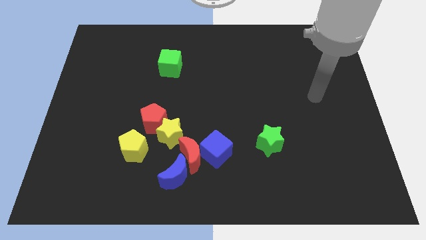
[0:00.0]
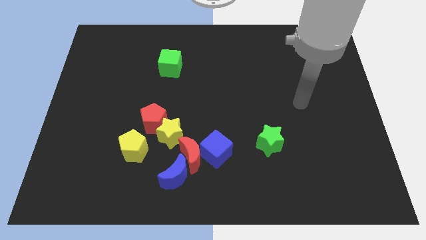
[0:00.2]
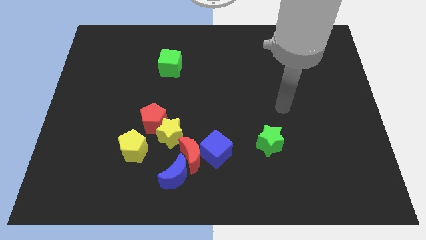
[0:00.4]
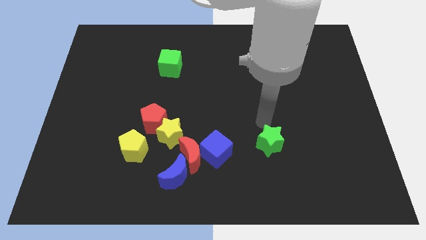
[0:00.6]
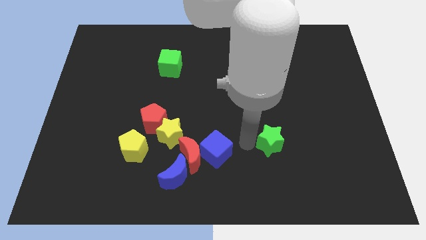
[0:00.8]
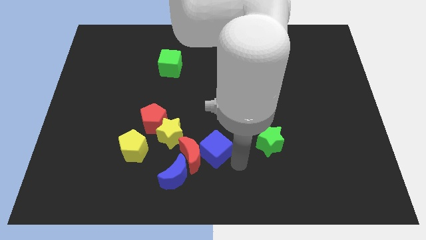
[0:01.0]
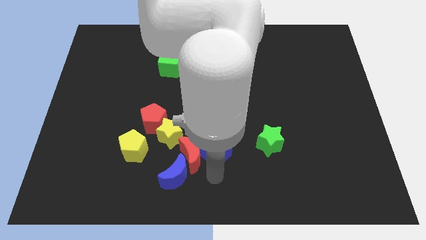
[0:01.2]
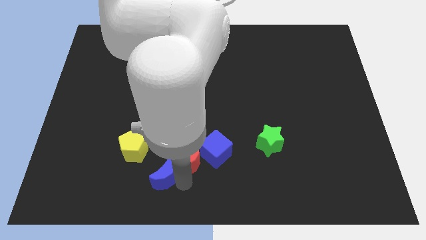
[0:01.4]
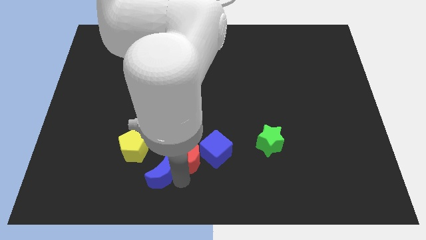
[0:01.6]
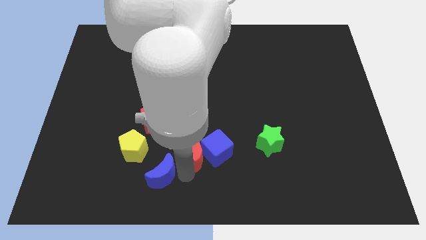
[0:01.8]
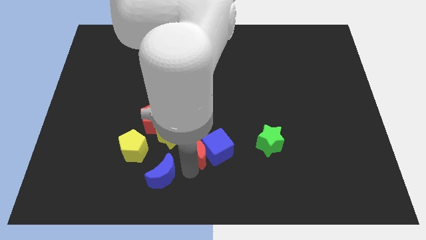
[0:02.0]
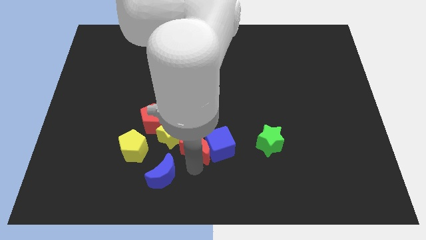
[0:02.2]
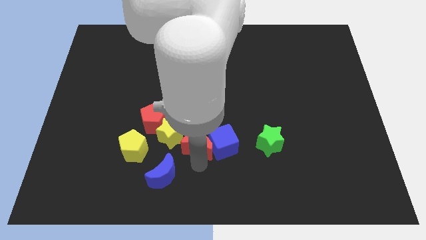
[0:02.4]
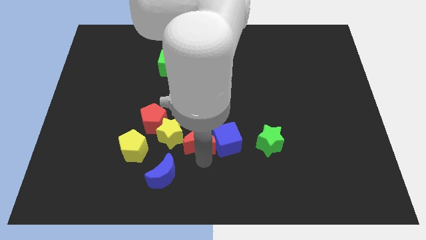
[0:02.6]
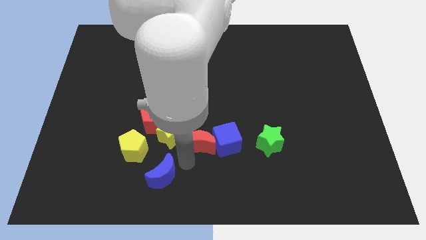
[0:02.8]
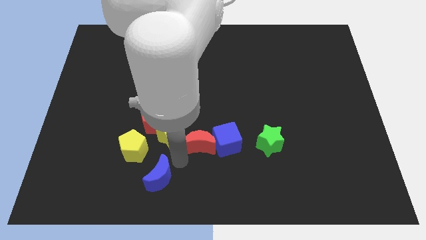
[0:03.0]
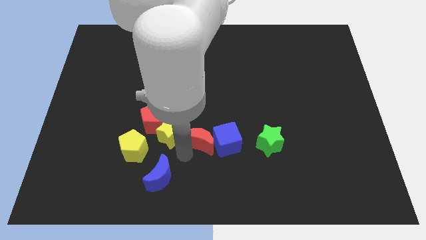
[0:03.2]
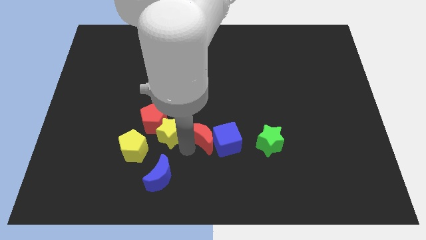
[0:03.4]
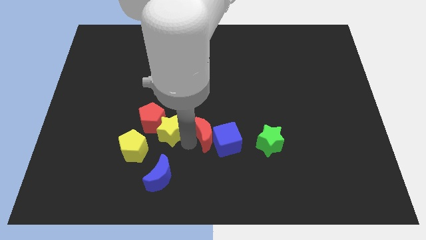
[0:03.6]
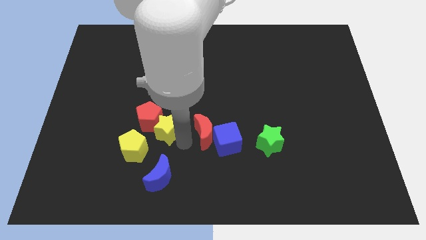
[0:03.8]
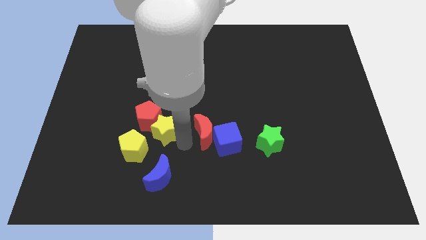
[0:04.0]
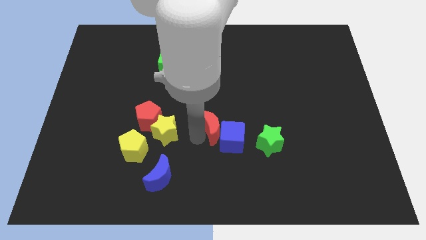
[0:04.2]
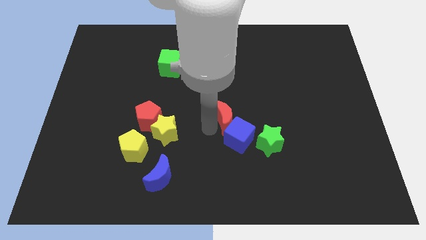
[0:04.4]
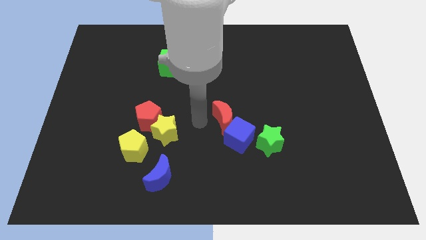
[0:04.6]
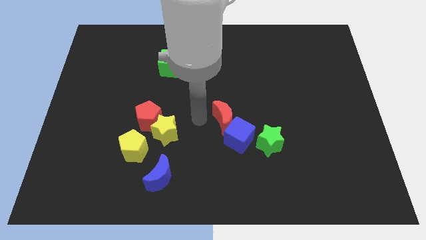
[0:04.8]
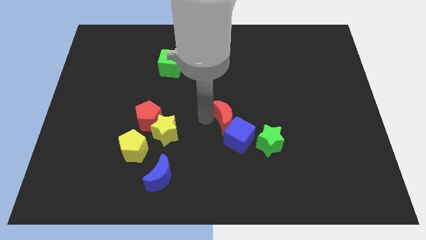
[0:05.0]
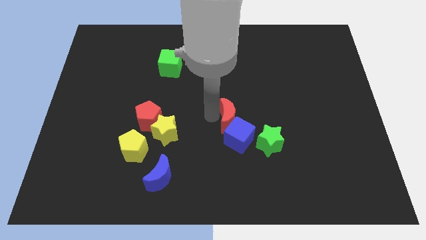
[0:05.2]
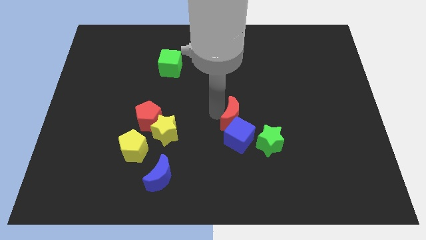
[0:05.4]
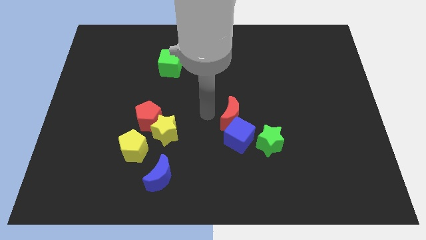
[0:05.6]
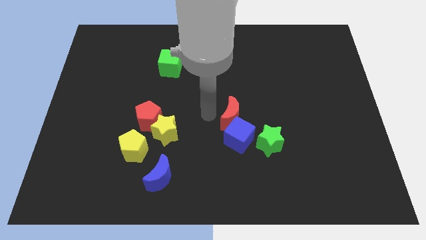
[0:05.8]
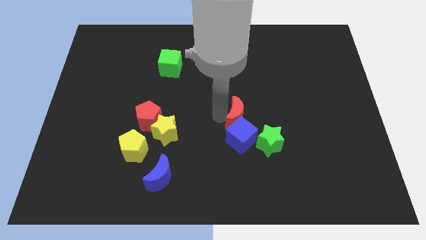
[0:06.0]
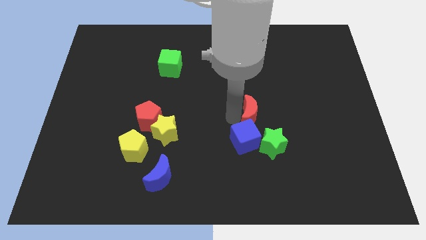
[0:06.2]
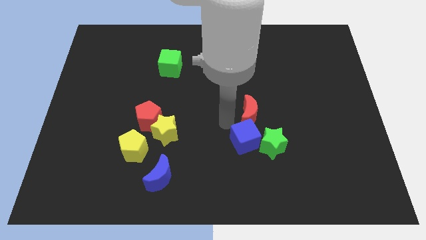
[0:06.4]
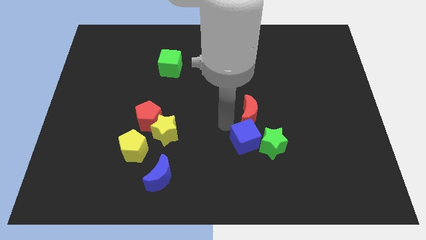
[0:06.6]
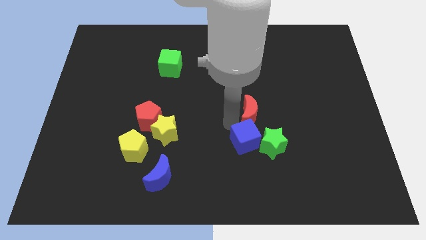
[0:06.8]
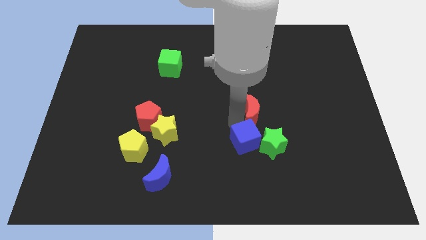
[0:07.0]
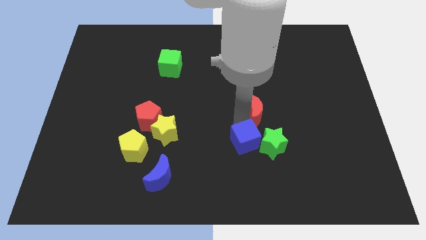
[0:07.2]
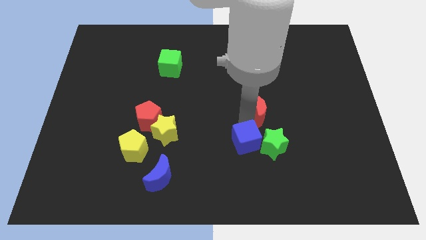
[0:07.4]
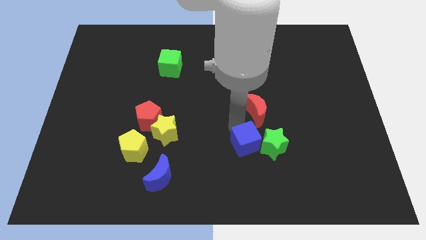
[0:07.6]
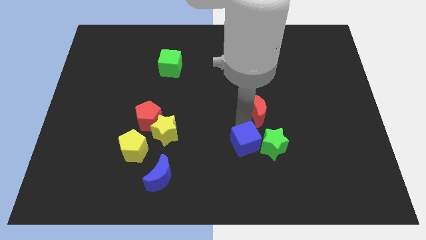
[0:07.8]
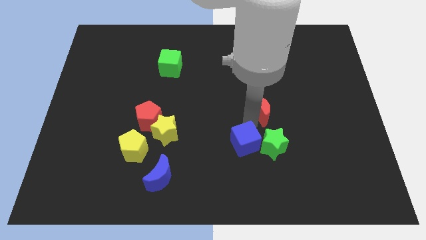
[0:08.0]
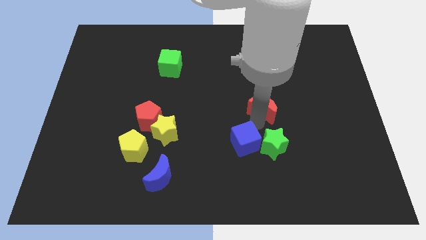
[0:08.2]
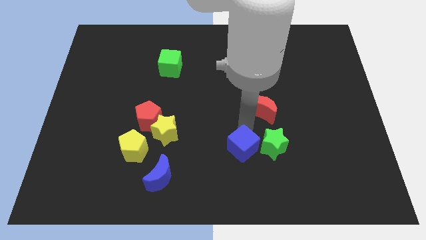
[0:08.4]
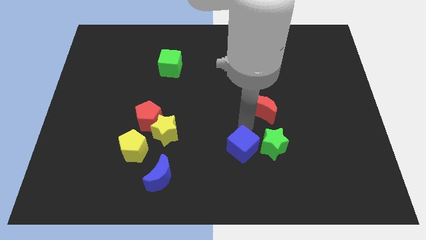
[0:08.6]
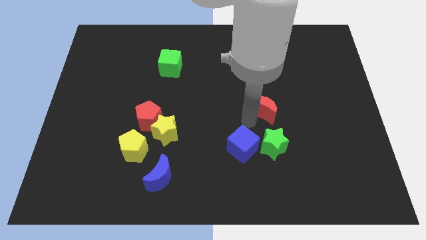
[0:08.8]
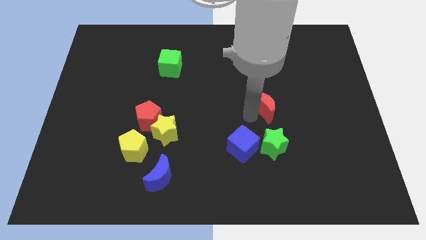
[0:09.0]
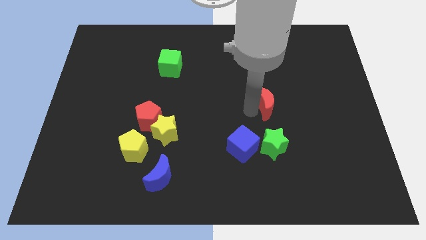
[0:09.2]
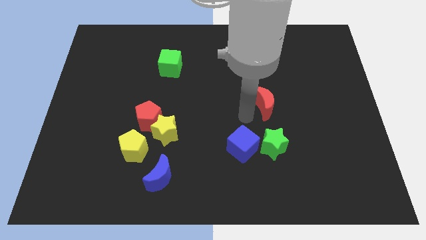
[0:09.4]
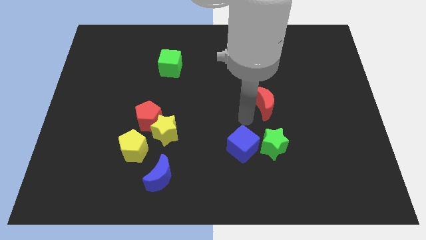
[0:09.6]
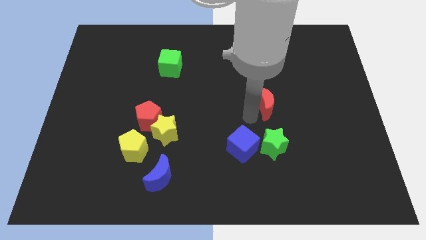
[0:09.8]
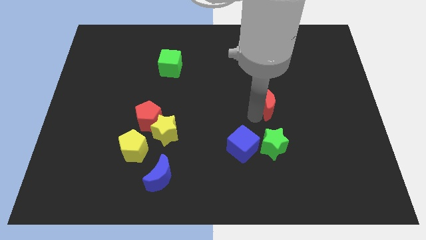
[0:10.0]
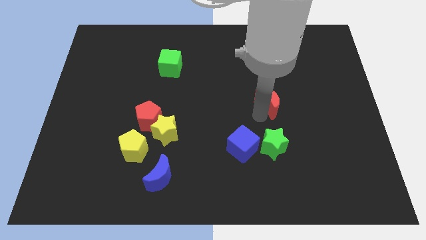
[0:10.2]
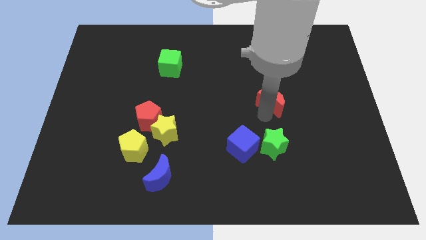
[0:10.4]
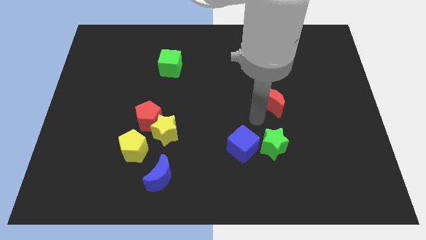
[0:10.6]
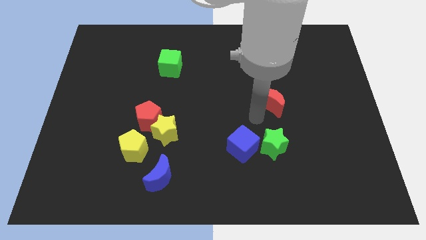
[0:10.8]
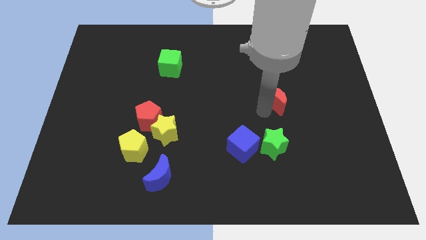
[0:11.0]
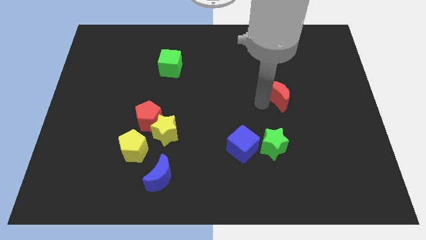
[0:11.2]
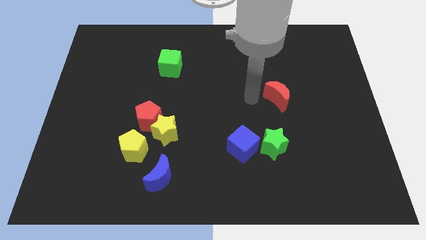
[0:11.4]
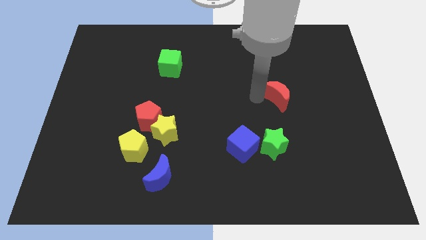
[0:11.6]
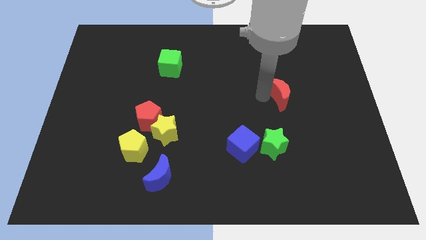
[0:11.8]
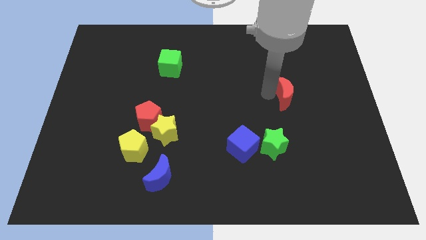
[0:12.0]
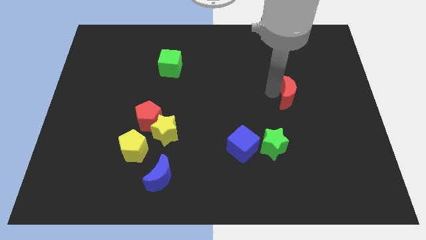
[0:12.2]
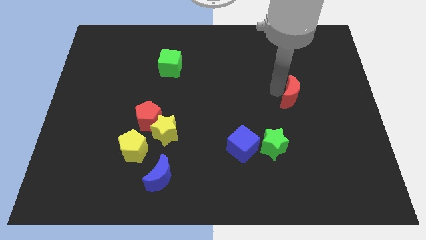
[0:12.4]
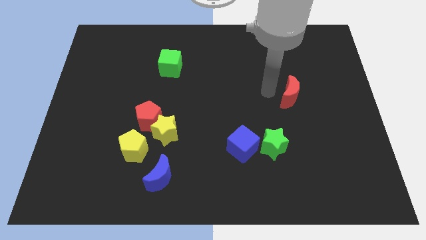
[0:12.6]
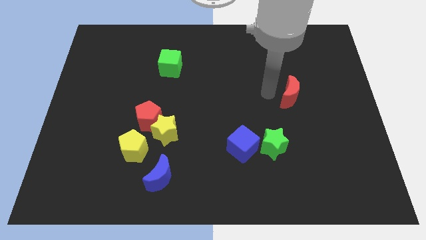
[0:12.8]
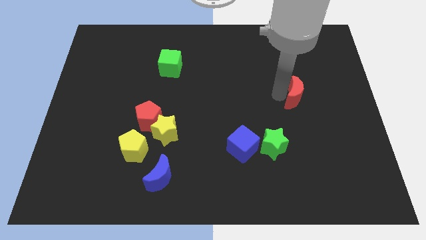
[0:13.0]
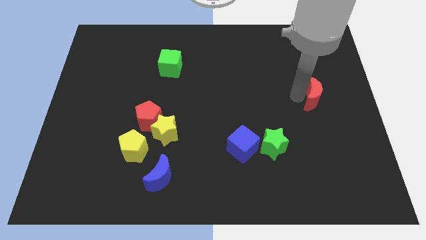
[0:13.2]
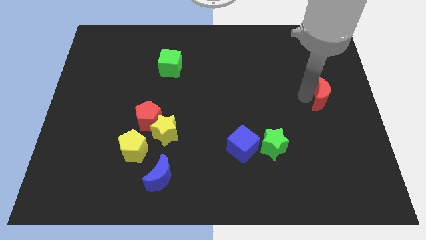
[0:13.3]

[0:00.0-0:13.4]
push the red moon to the right side
